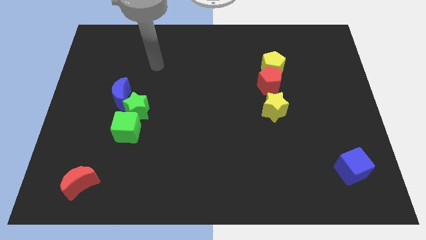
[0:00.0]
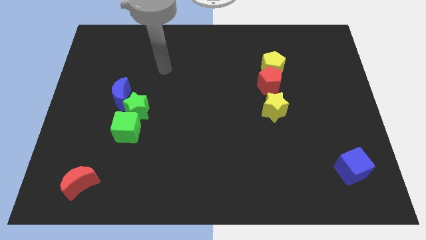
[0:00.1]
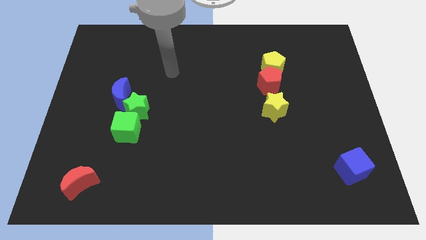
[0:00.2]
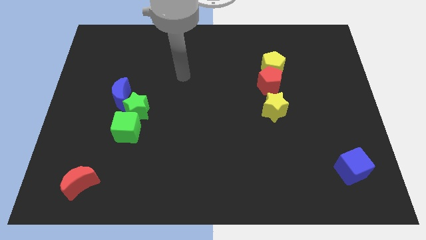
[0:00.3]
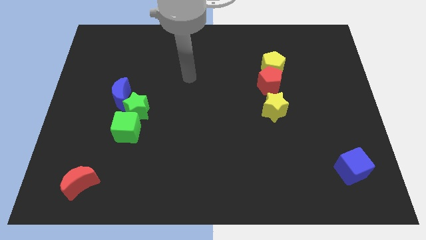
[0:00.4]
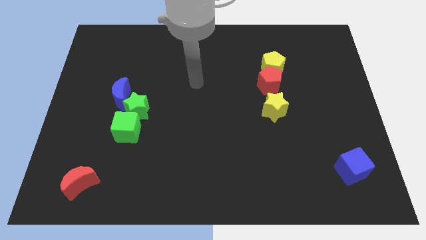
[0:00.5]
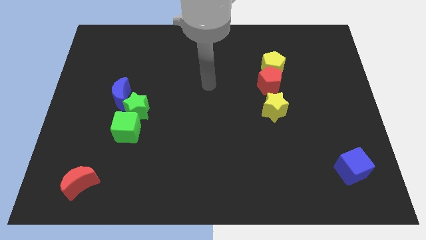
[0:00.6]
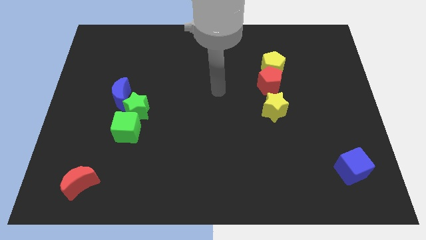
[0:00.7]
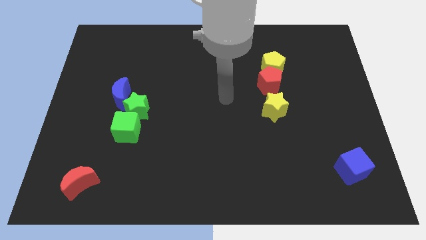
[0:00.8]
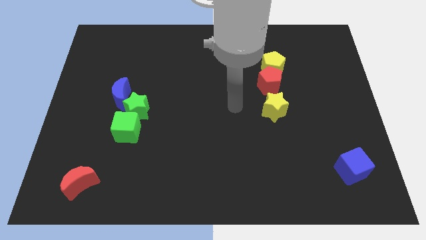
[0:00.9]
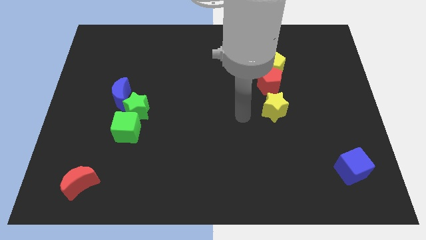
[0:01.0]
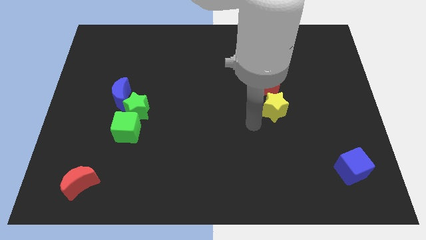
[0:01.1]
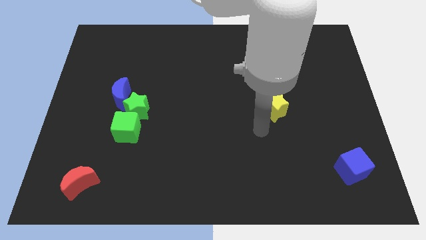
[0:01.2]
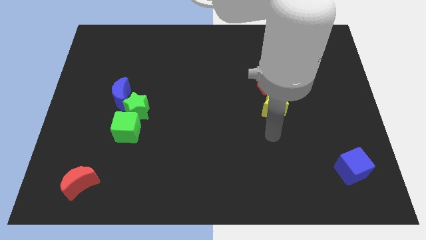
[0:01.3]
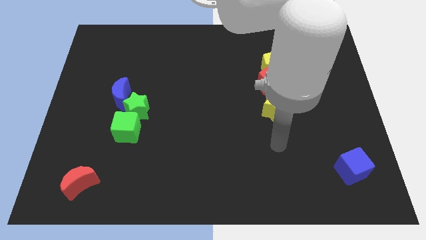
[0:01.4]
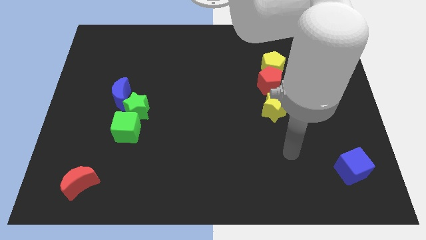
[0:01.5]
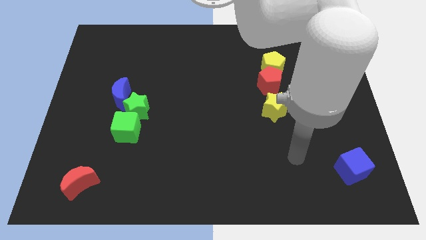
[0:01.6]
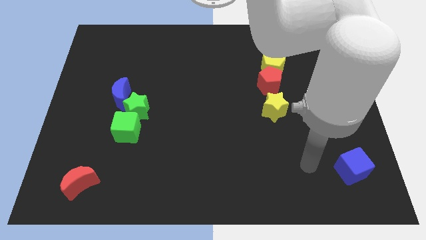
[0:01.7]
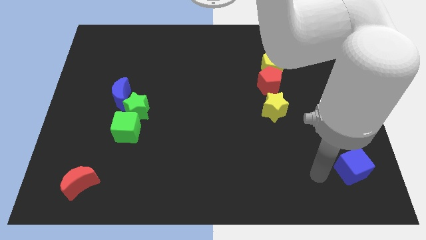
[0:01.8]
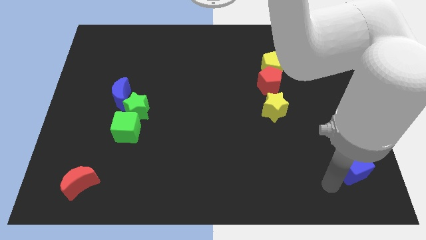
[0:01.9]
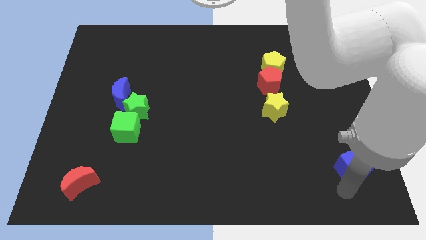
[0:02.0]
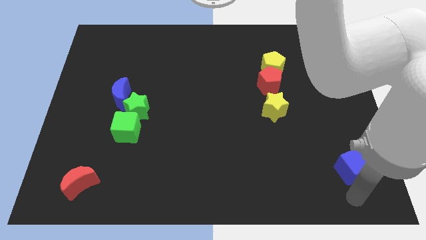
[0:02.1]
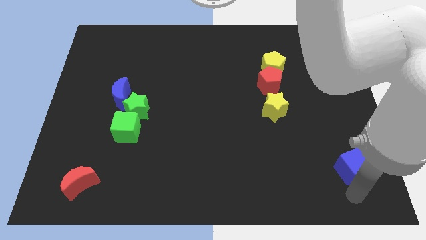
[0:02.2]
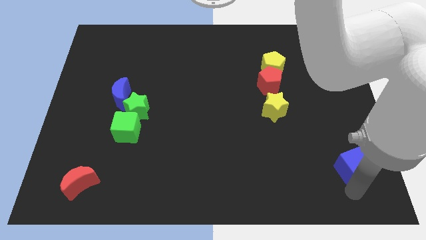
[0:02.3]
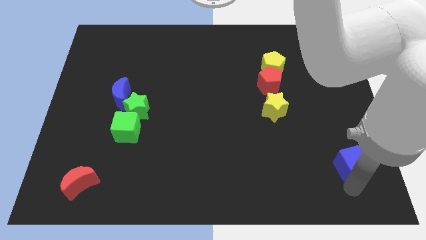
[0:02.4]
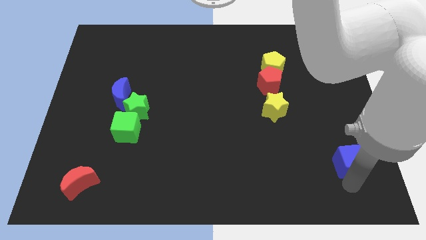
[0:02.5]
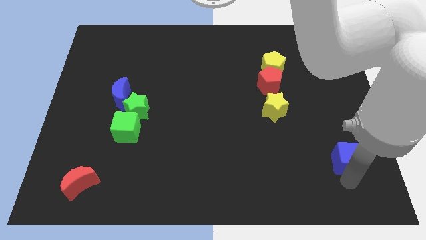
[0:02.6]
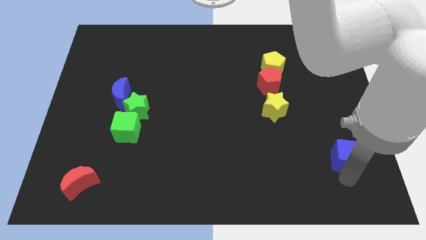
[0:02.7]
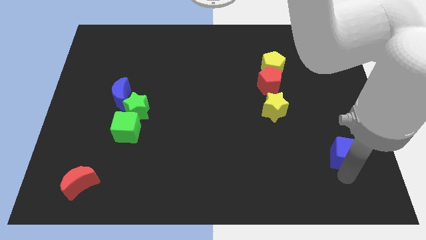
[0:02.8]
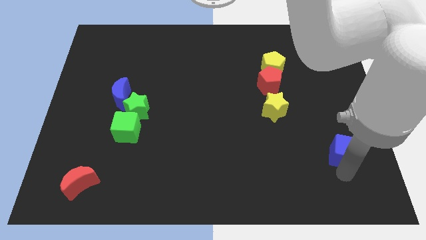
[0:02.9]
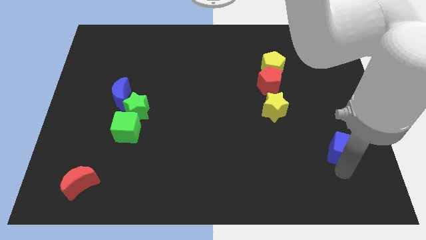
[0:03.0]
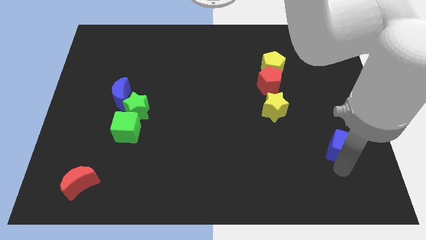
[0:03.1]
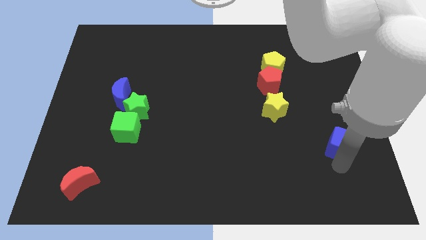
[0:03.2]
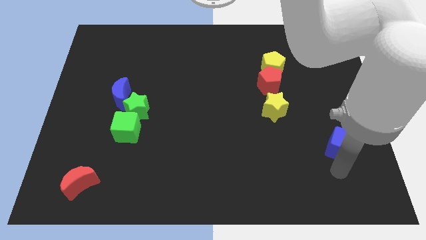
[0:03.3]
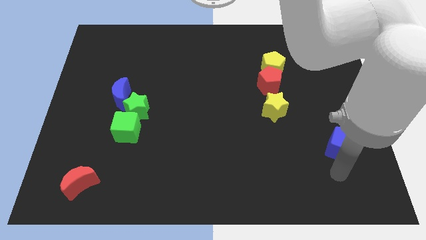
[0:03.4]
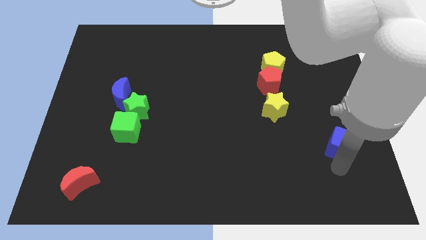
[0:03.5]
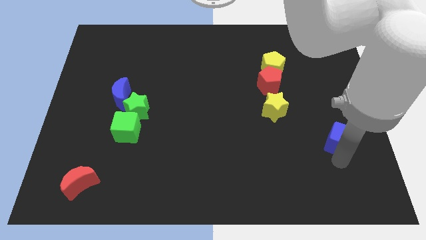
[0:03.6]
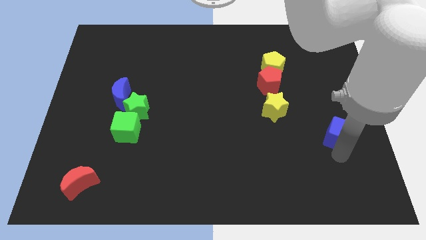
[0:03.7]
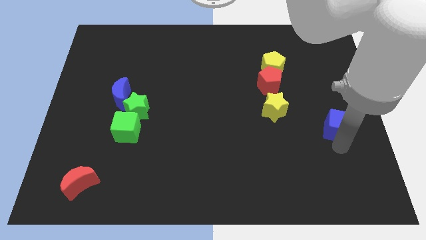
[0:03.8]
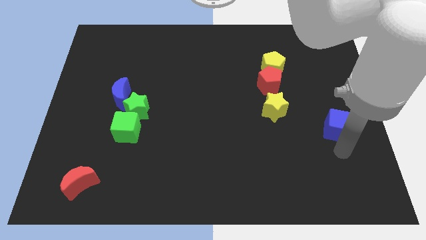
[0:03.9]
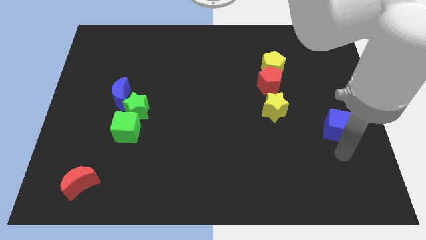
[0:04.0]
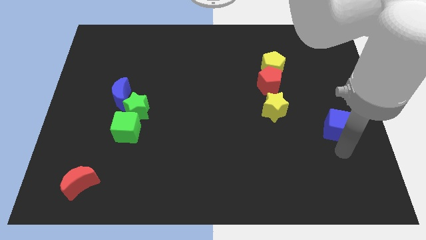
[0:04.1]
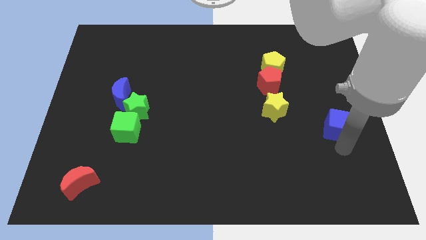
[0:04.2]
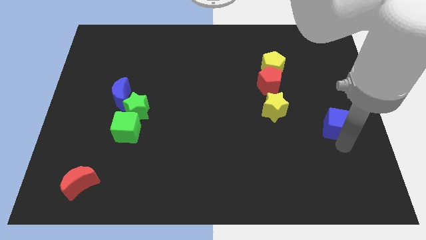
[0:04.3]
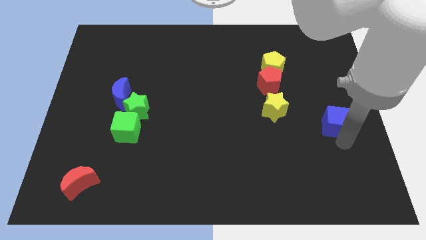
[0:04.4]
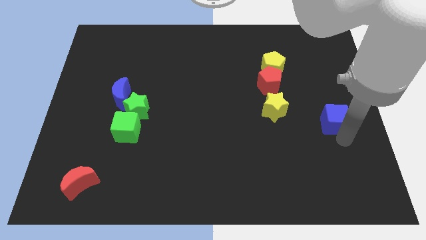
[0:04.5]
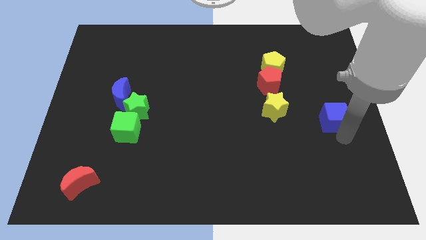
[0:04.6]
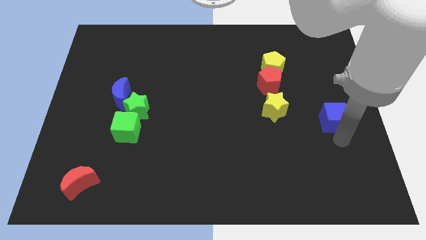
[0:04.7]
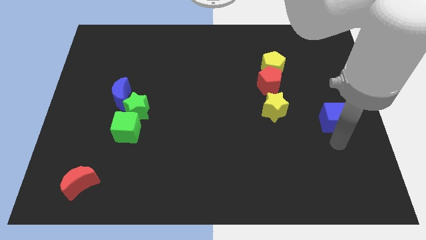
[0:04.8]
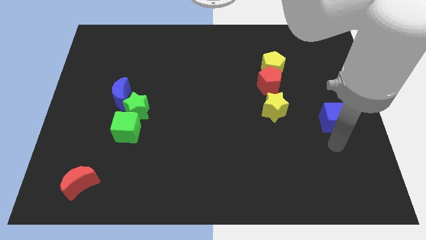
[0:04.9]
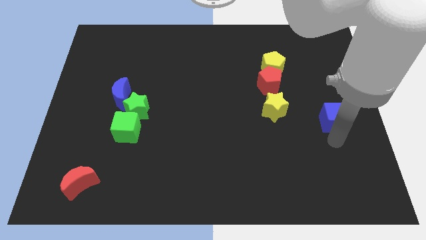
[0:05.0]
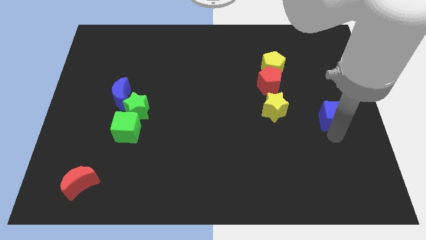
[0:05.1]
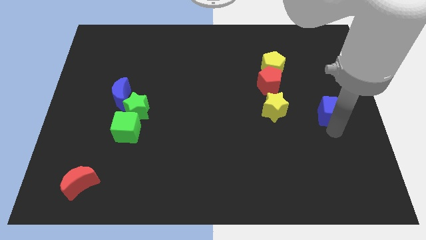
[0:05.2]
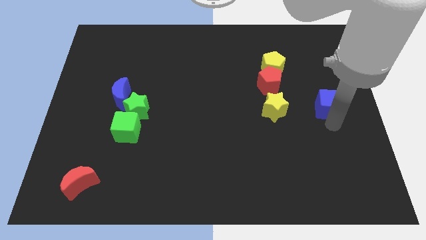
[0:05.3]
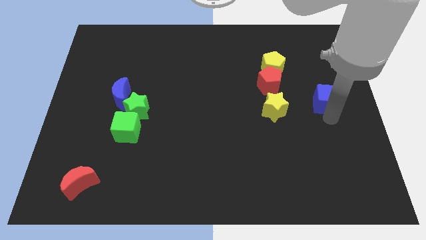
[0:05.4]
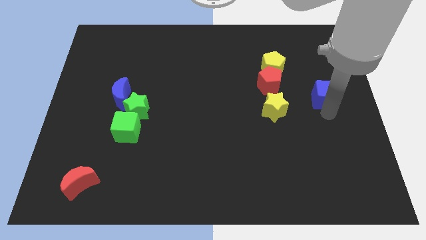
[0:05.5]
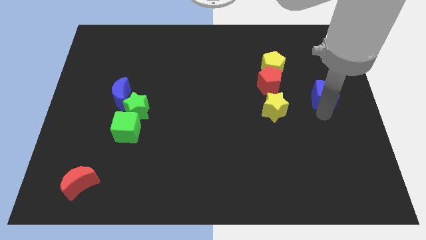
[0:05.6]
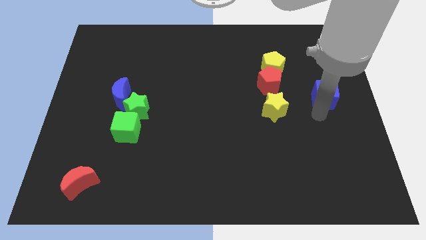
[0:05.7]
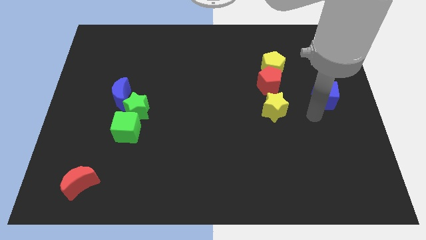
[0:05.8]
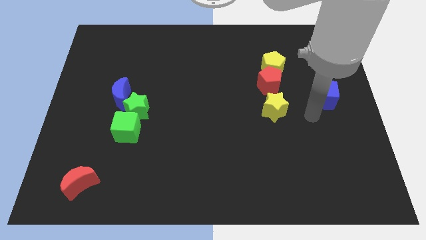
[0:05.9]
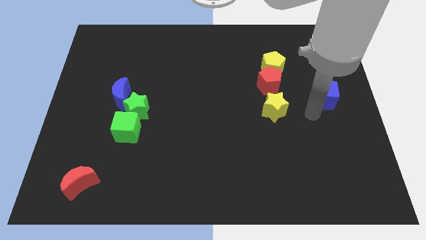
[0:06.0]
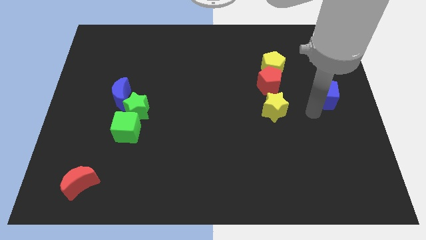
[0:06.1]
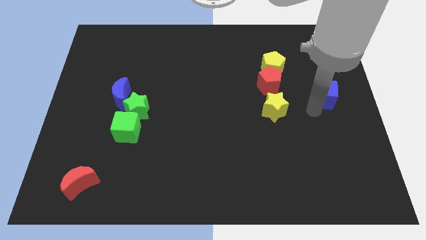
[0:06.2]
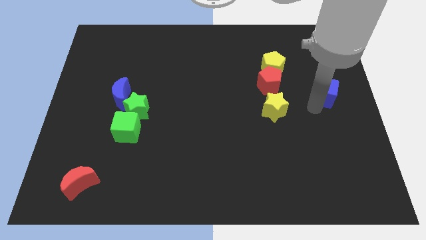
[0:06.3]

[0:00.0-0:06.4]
push the blue cube upwards

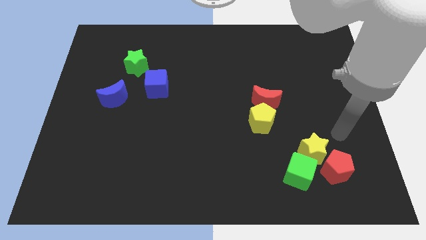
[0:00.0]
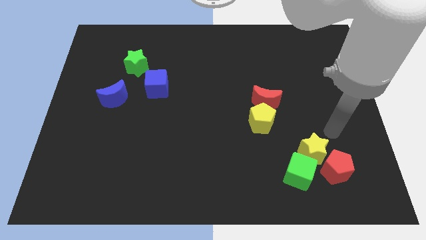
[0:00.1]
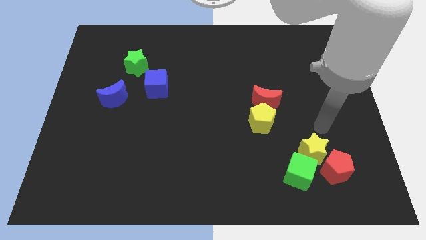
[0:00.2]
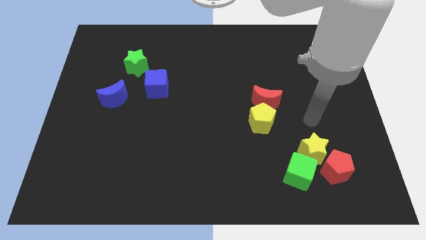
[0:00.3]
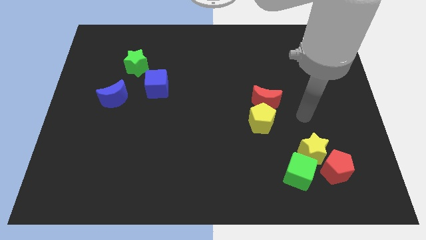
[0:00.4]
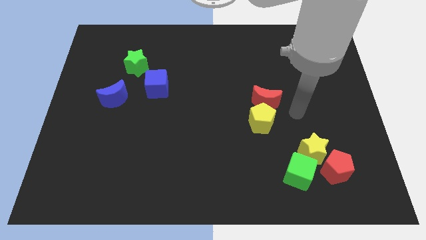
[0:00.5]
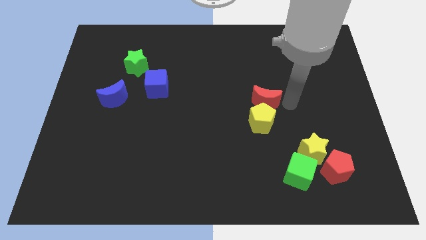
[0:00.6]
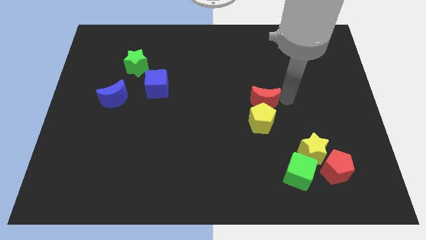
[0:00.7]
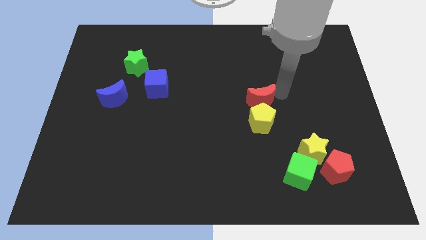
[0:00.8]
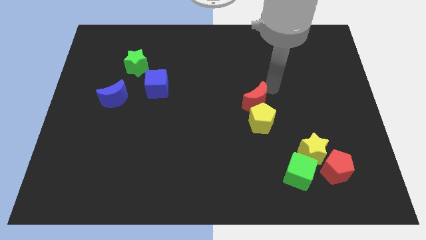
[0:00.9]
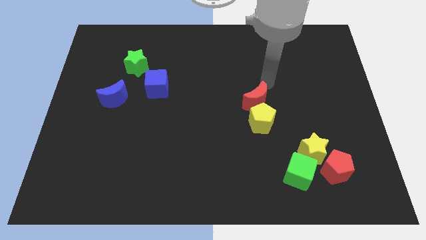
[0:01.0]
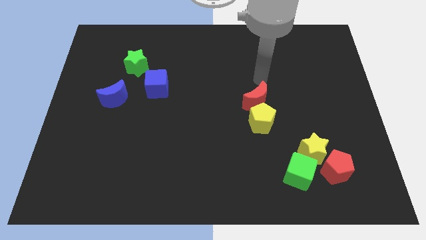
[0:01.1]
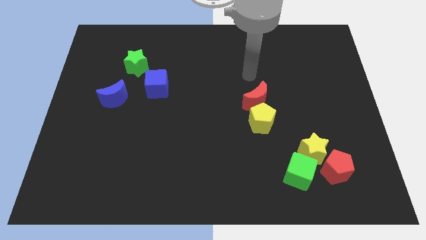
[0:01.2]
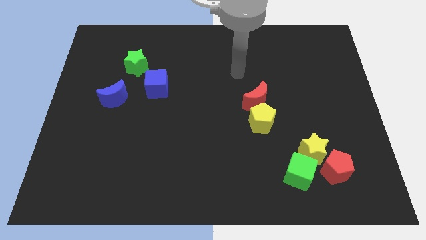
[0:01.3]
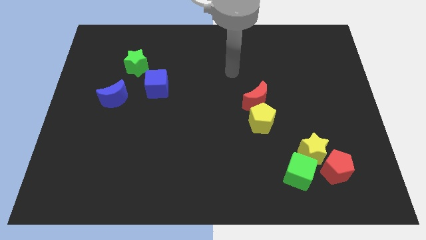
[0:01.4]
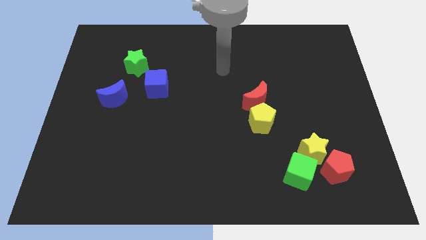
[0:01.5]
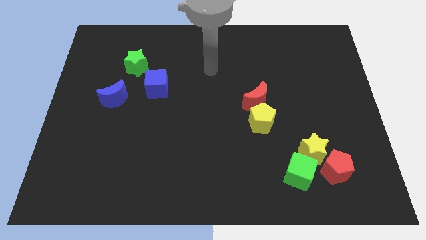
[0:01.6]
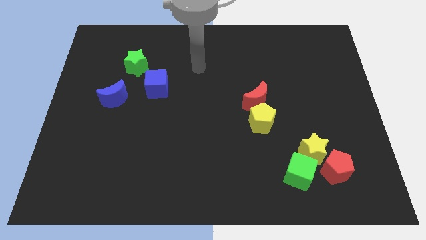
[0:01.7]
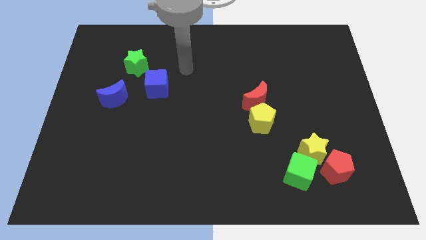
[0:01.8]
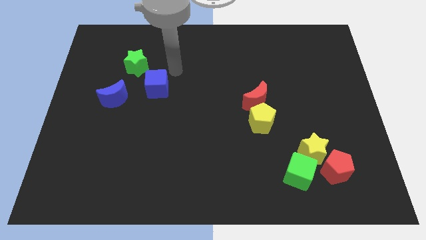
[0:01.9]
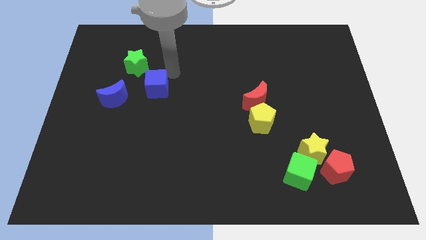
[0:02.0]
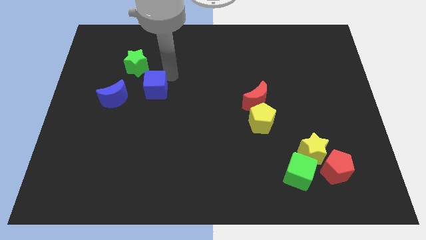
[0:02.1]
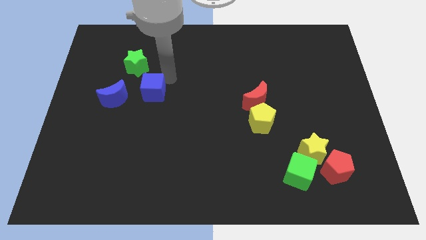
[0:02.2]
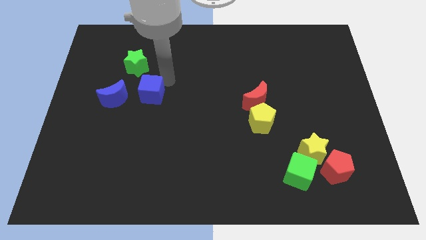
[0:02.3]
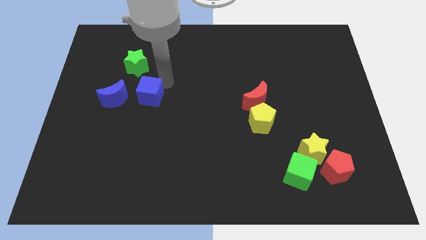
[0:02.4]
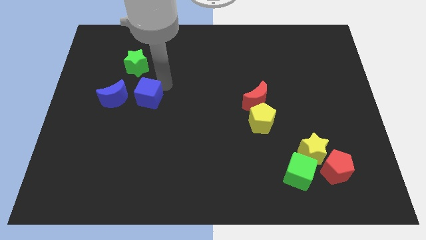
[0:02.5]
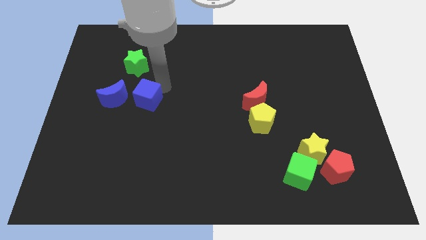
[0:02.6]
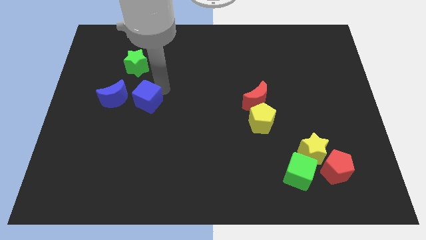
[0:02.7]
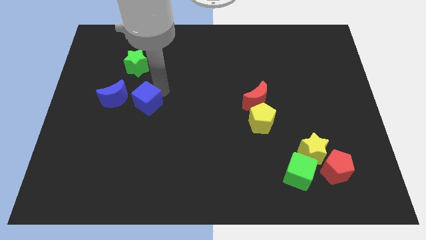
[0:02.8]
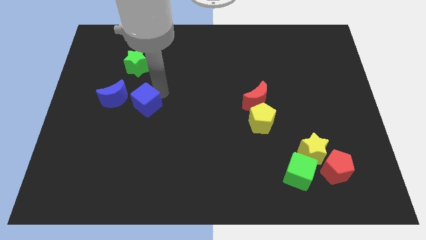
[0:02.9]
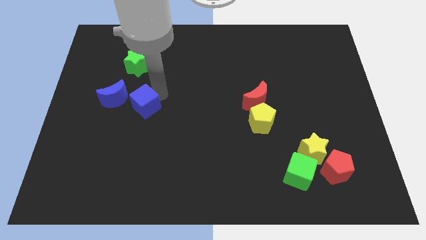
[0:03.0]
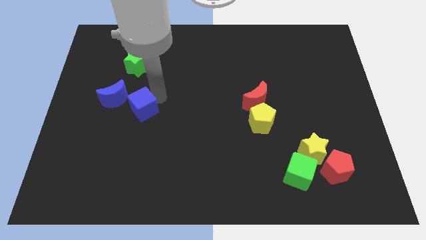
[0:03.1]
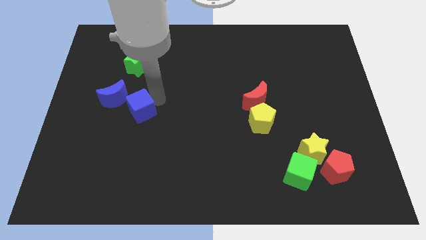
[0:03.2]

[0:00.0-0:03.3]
push the blue cube a little down and left
